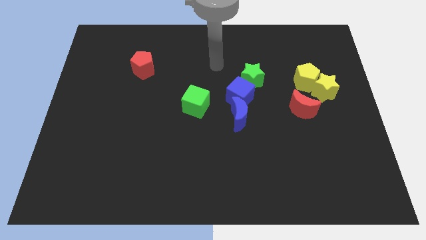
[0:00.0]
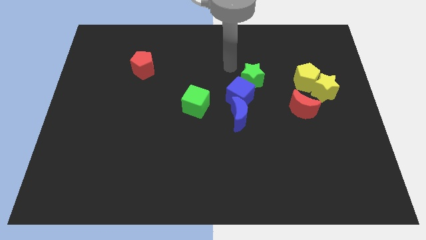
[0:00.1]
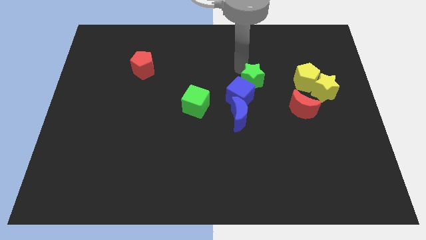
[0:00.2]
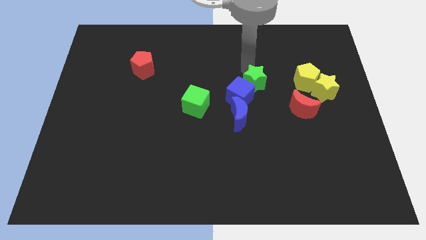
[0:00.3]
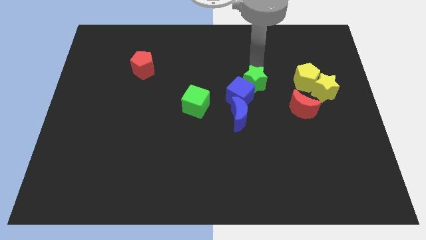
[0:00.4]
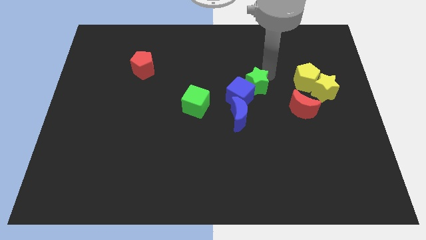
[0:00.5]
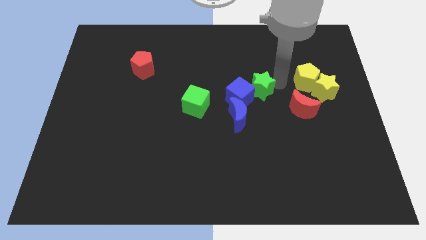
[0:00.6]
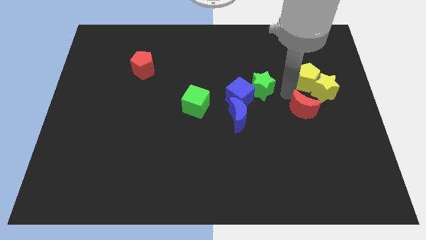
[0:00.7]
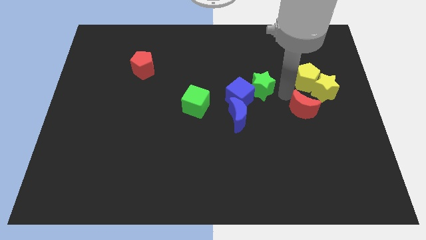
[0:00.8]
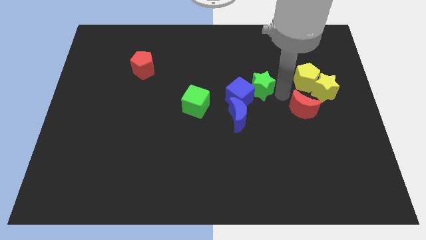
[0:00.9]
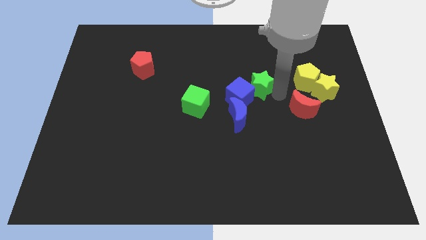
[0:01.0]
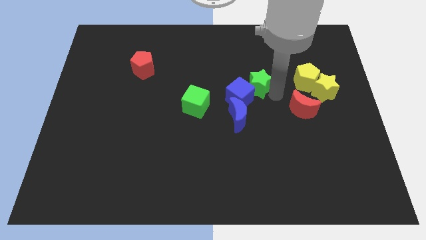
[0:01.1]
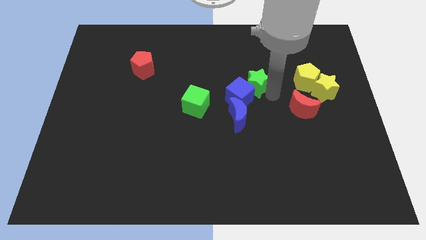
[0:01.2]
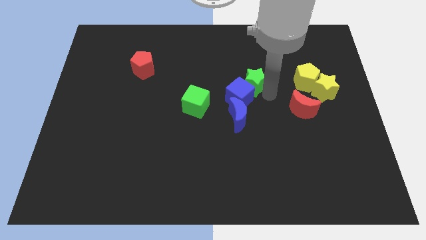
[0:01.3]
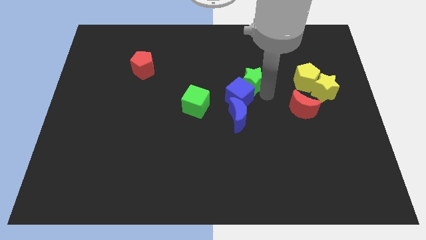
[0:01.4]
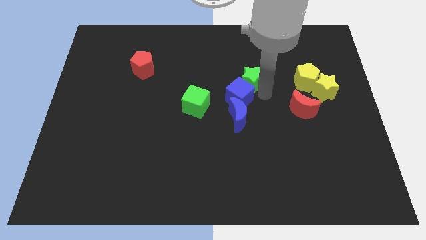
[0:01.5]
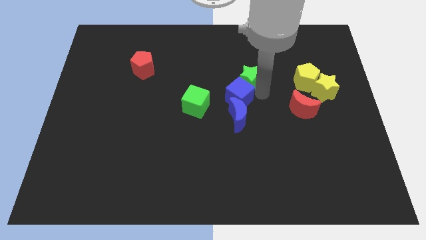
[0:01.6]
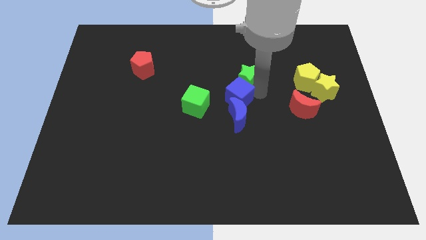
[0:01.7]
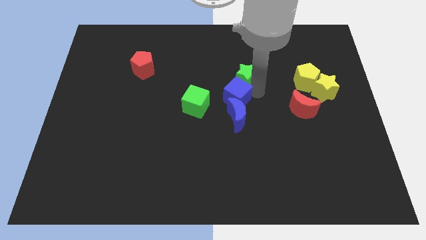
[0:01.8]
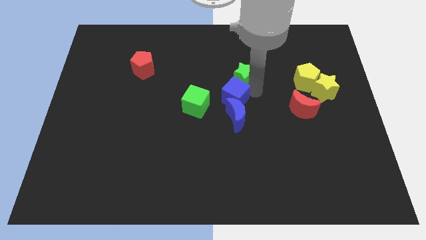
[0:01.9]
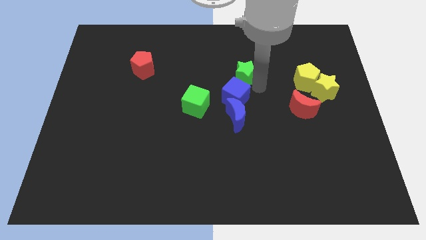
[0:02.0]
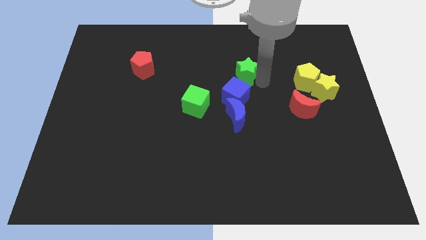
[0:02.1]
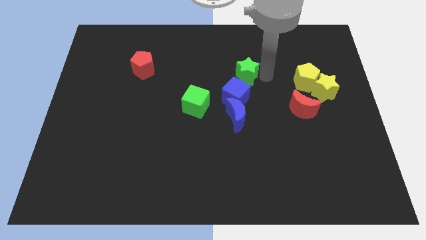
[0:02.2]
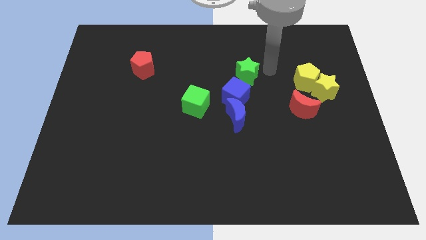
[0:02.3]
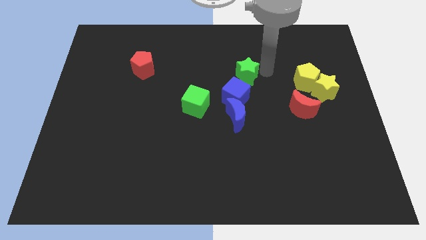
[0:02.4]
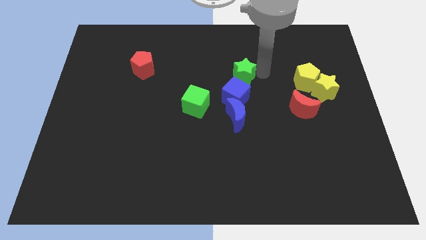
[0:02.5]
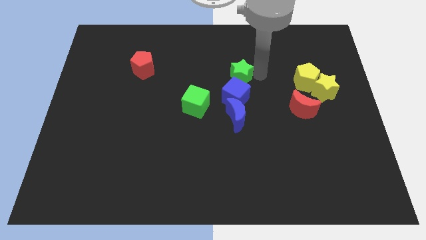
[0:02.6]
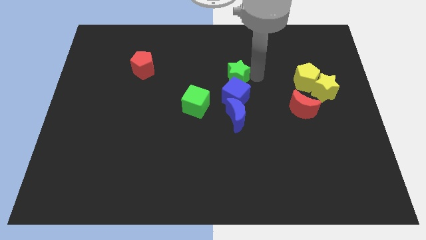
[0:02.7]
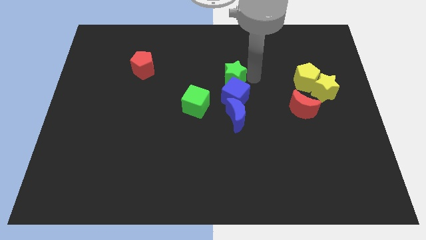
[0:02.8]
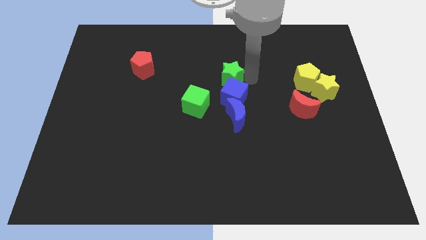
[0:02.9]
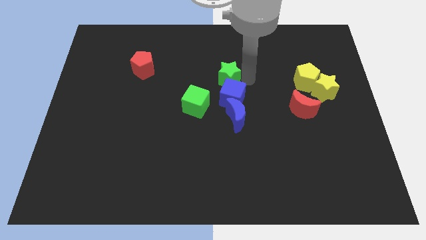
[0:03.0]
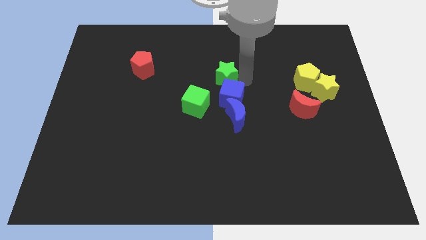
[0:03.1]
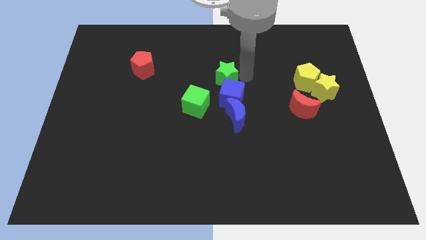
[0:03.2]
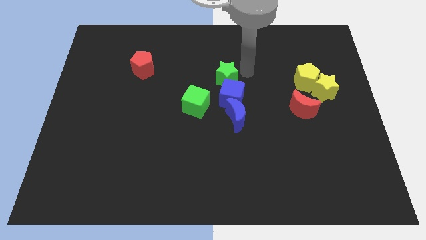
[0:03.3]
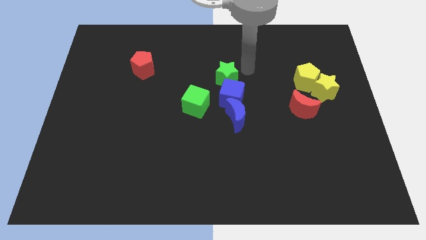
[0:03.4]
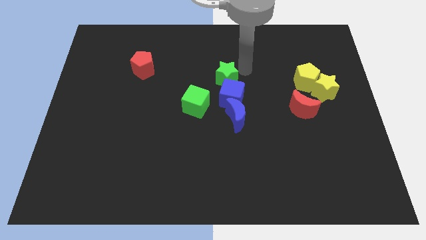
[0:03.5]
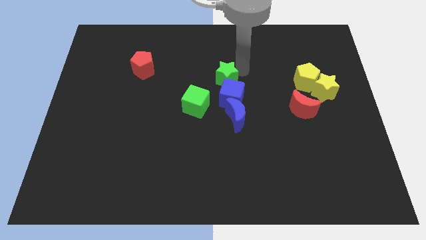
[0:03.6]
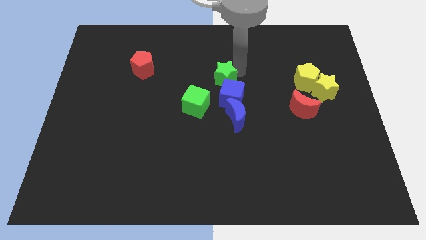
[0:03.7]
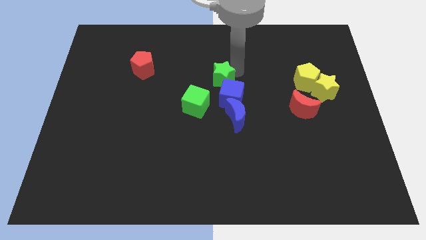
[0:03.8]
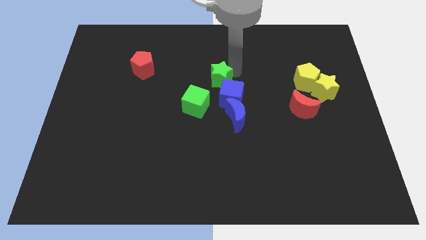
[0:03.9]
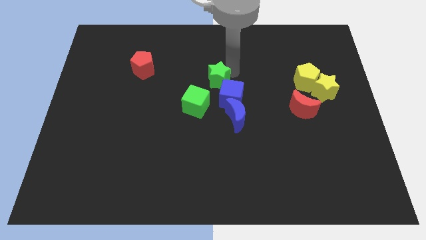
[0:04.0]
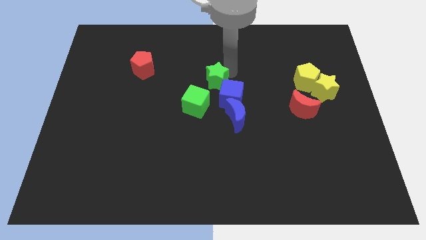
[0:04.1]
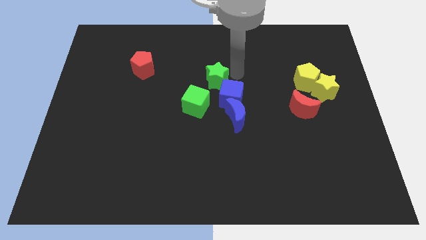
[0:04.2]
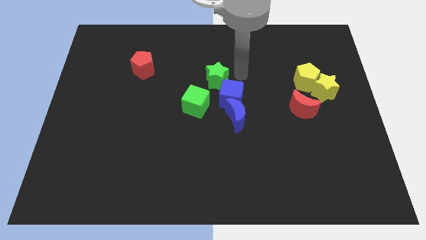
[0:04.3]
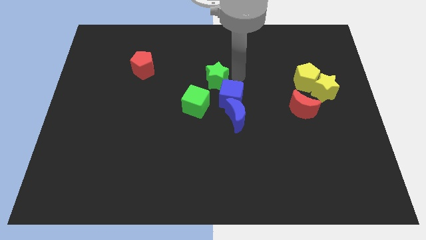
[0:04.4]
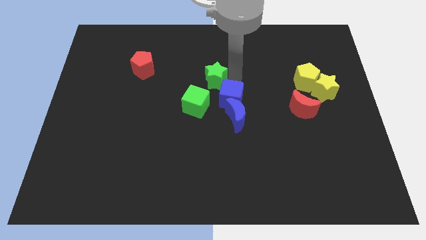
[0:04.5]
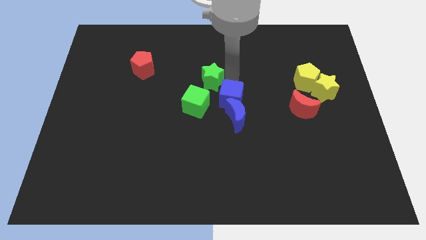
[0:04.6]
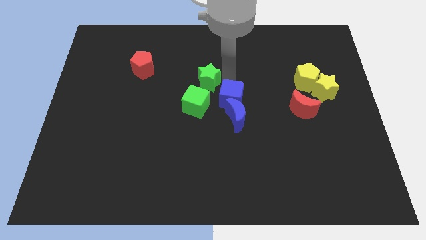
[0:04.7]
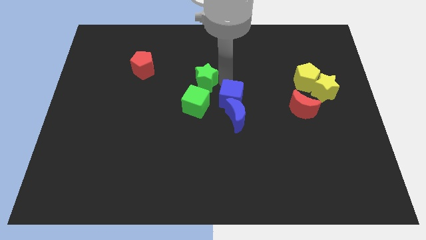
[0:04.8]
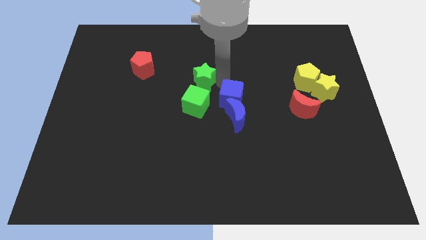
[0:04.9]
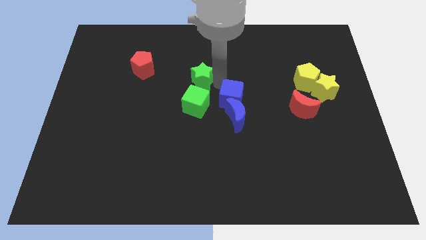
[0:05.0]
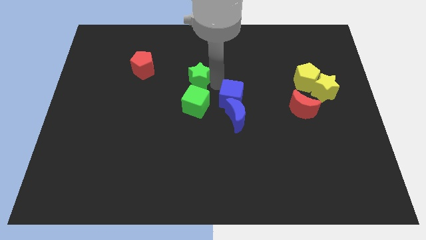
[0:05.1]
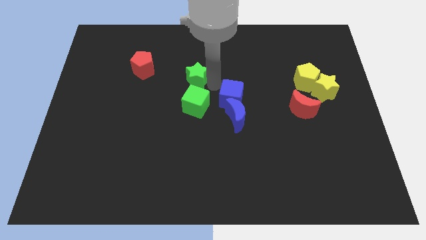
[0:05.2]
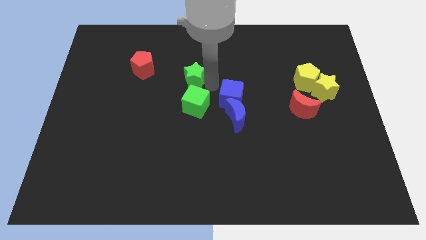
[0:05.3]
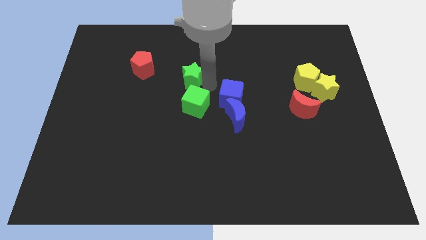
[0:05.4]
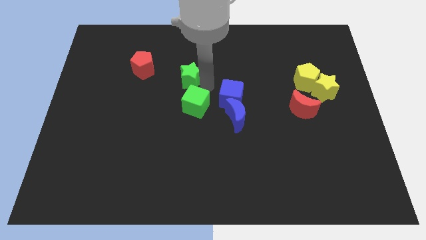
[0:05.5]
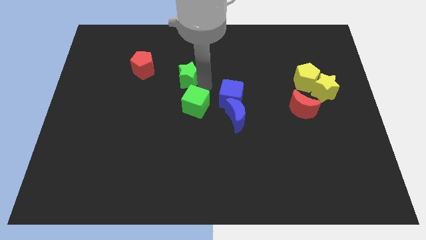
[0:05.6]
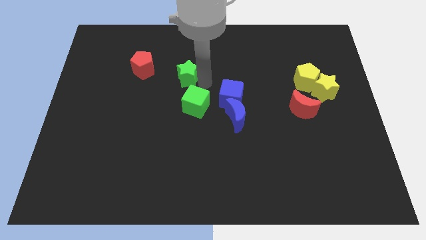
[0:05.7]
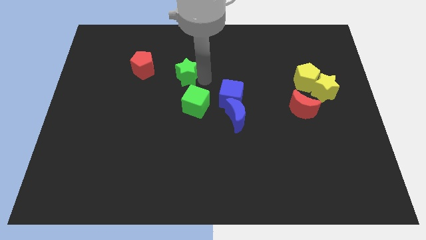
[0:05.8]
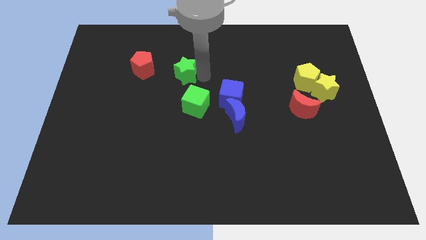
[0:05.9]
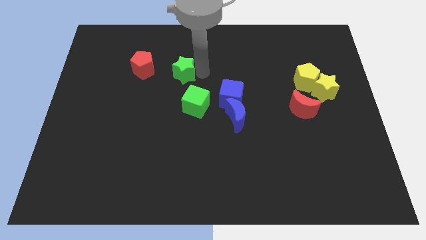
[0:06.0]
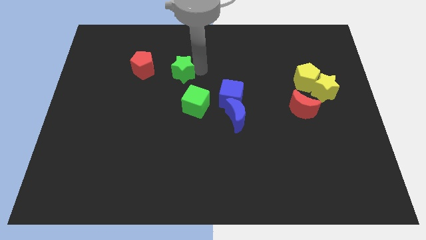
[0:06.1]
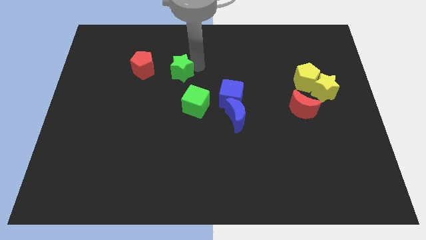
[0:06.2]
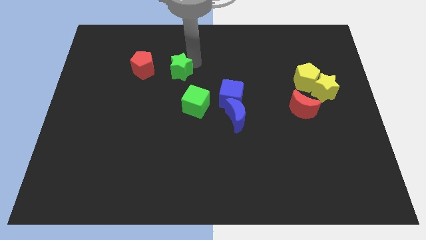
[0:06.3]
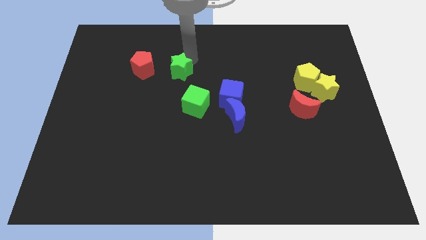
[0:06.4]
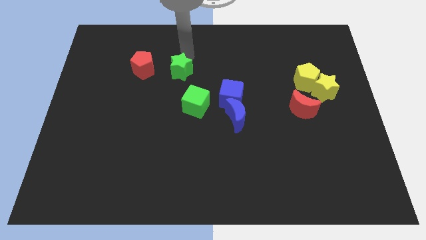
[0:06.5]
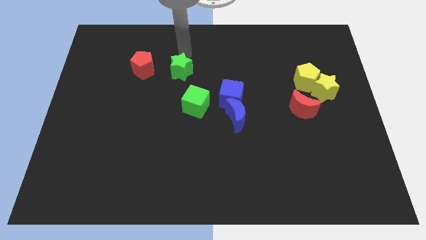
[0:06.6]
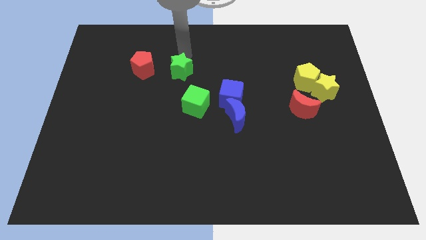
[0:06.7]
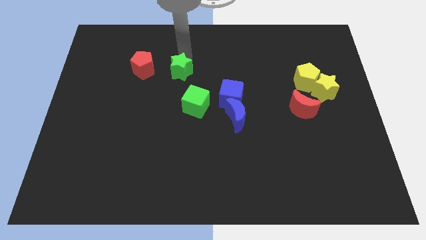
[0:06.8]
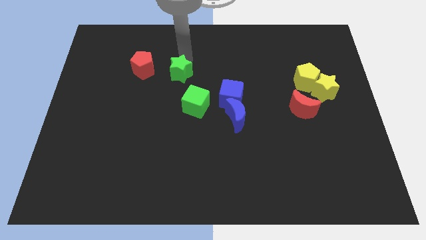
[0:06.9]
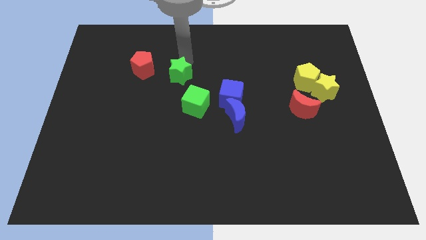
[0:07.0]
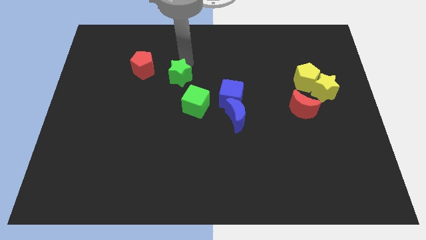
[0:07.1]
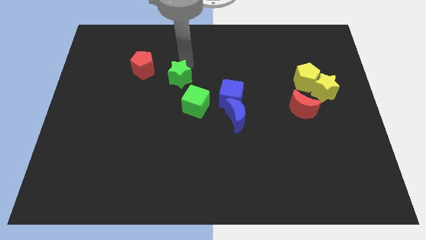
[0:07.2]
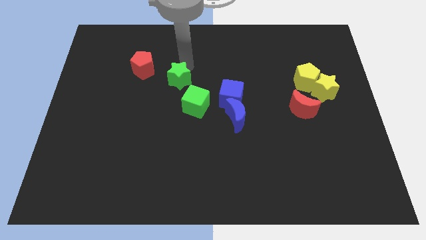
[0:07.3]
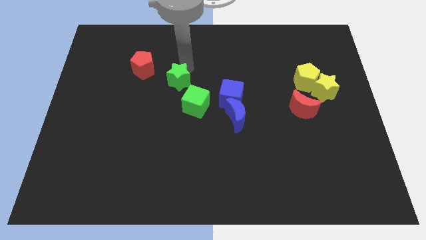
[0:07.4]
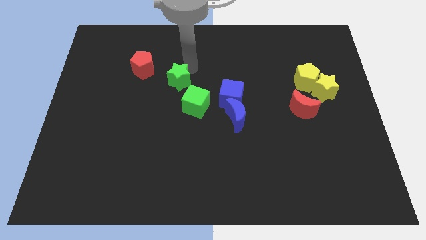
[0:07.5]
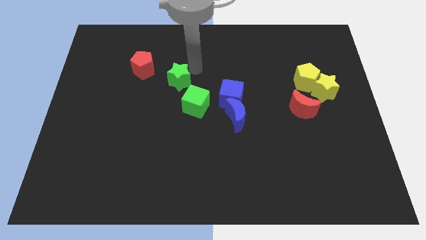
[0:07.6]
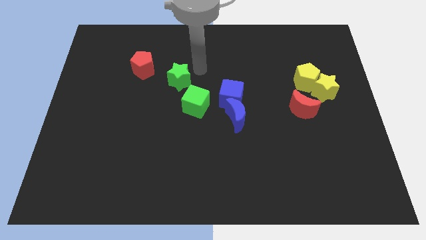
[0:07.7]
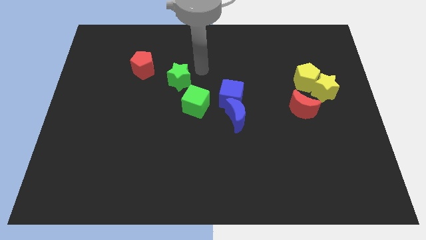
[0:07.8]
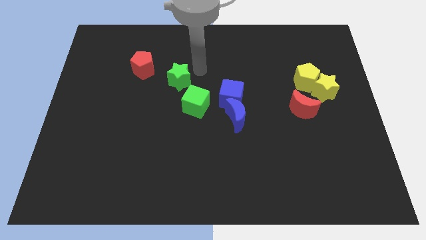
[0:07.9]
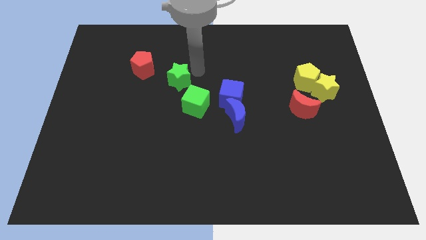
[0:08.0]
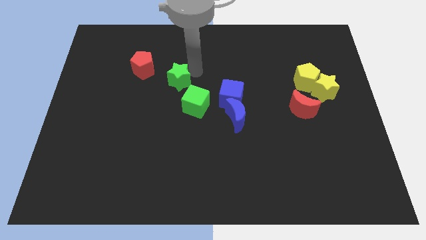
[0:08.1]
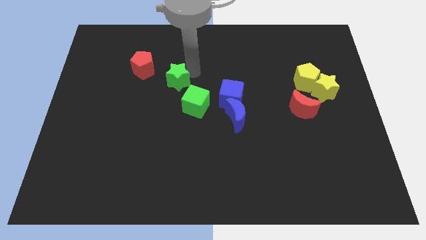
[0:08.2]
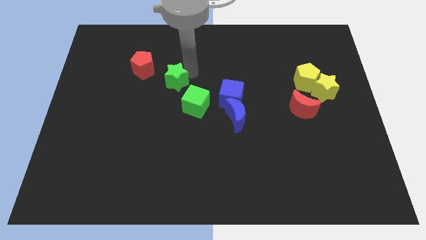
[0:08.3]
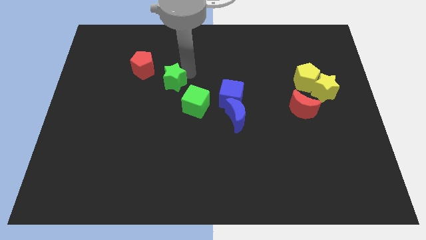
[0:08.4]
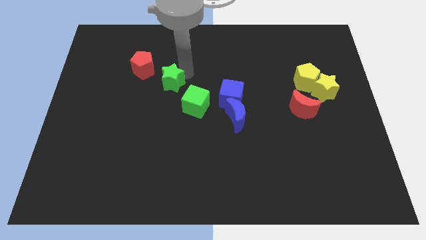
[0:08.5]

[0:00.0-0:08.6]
slide the green star left
